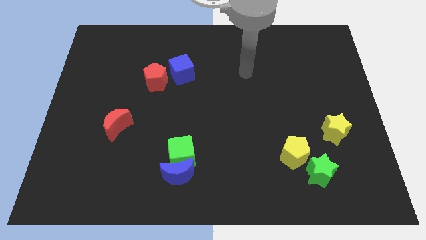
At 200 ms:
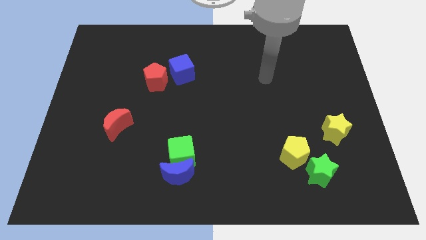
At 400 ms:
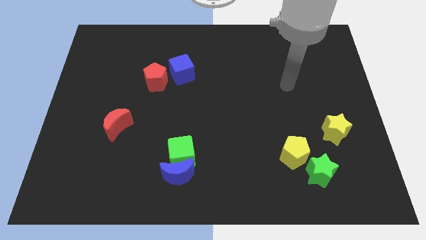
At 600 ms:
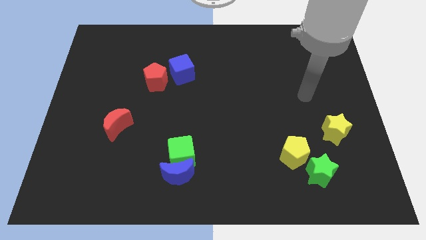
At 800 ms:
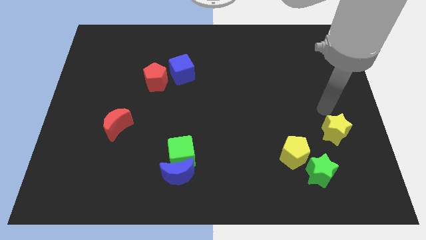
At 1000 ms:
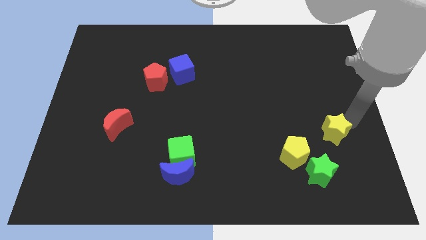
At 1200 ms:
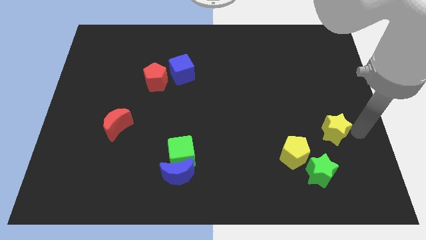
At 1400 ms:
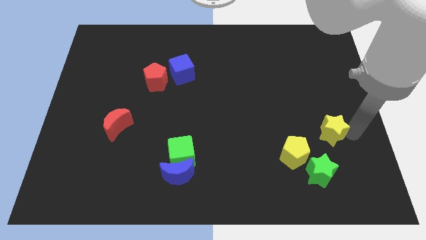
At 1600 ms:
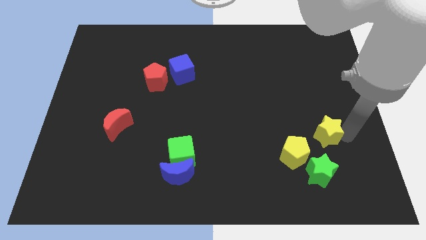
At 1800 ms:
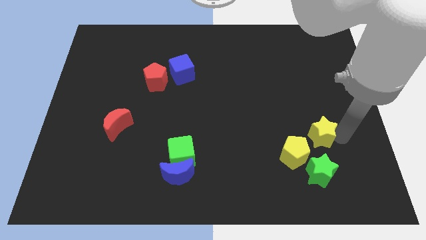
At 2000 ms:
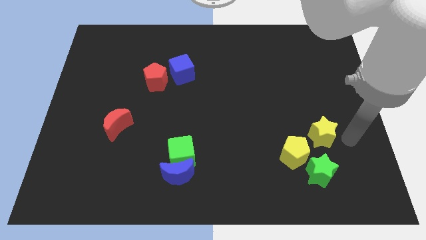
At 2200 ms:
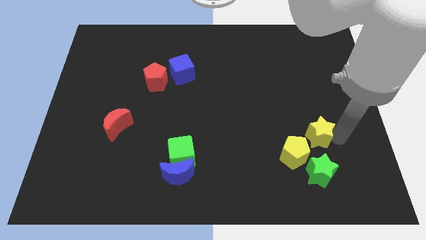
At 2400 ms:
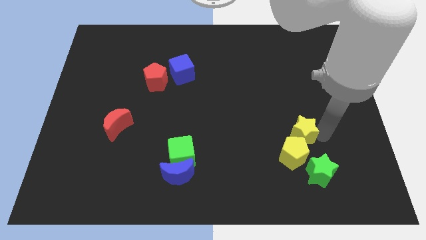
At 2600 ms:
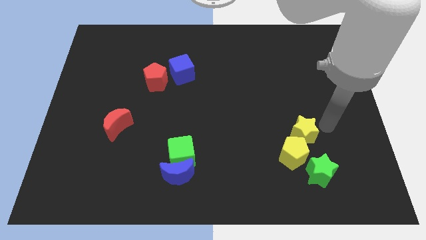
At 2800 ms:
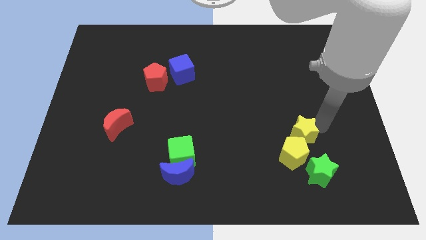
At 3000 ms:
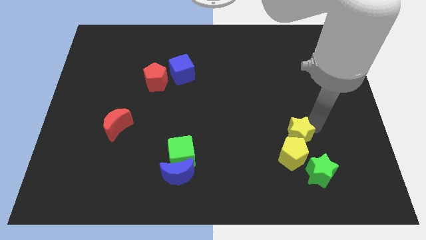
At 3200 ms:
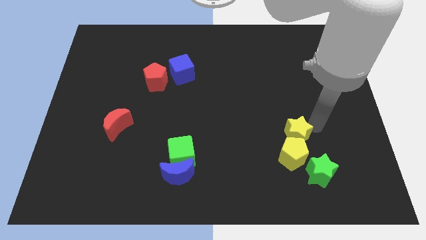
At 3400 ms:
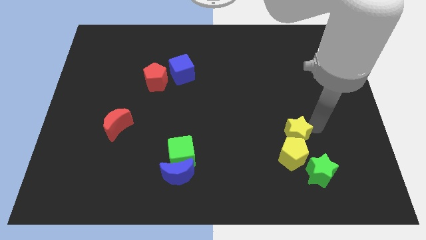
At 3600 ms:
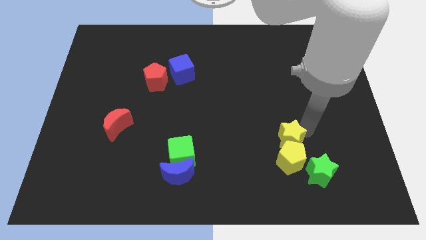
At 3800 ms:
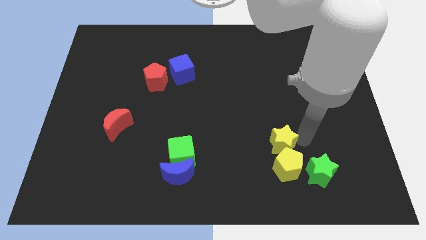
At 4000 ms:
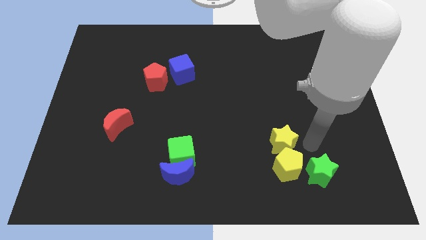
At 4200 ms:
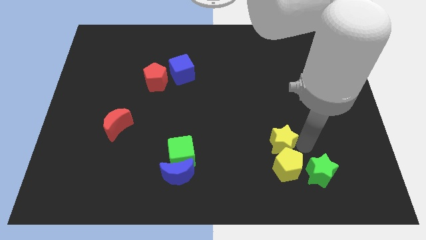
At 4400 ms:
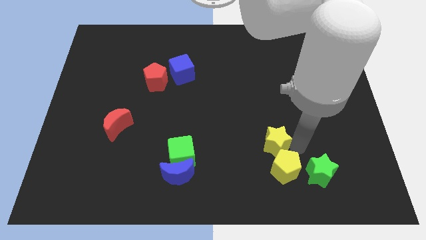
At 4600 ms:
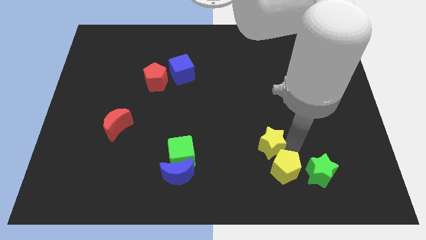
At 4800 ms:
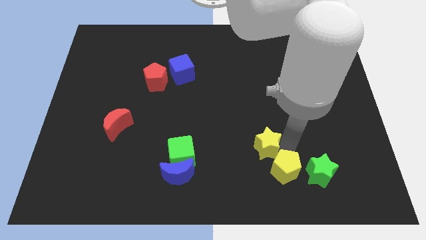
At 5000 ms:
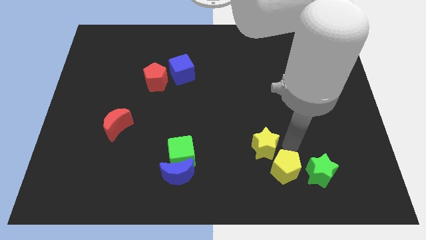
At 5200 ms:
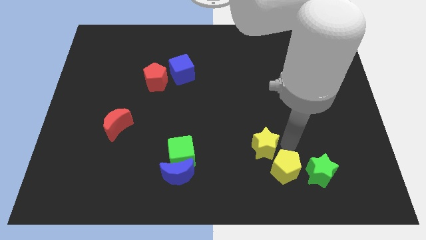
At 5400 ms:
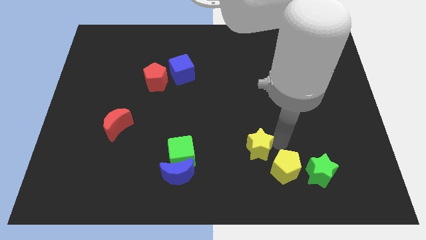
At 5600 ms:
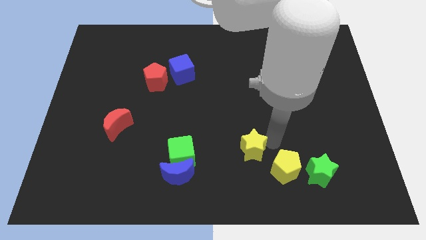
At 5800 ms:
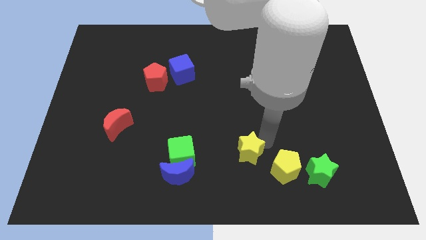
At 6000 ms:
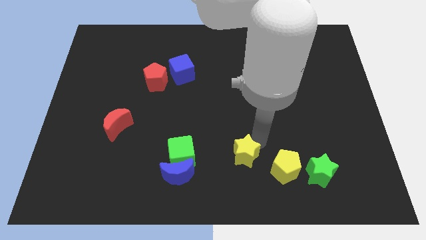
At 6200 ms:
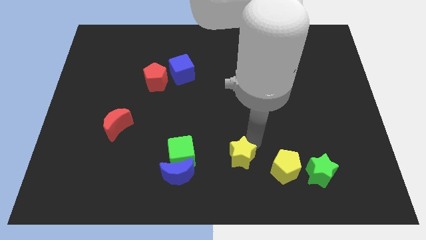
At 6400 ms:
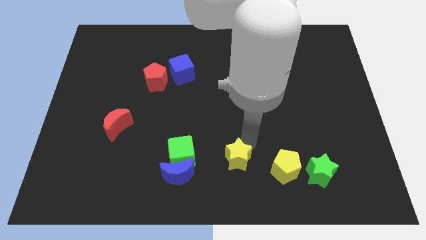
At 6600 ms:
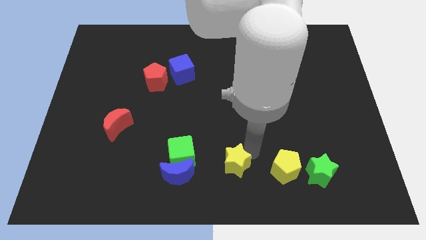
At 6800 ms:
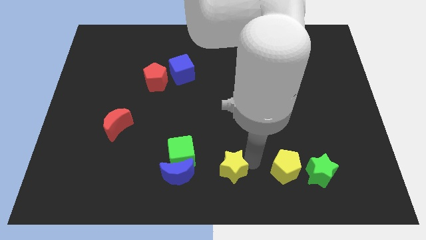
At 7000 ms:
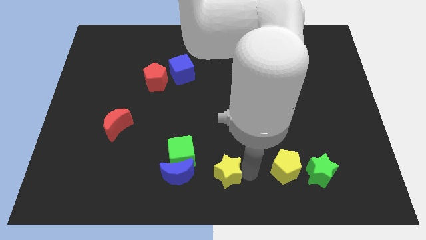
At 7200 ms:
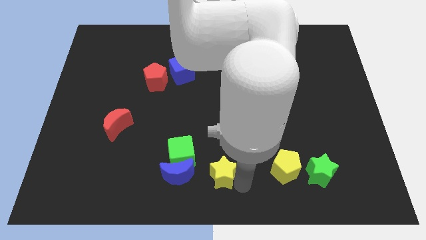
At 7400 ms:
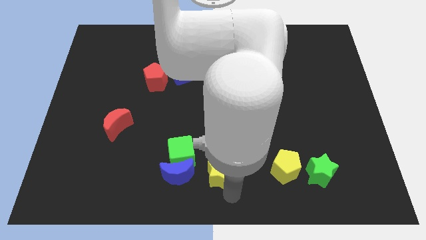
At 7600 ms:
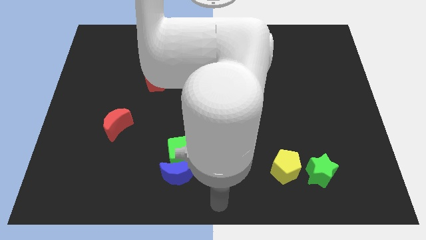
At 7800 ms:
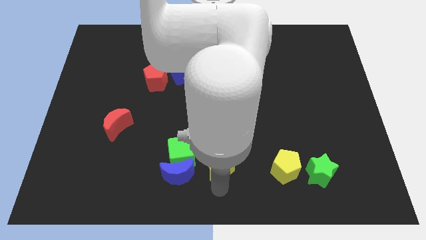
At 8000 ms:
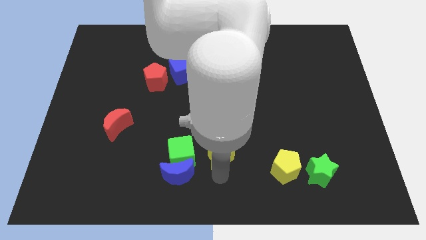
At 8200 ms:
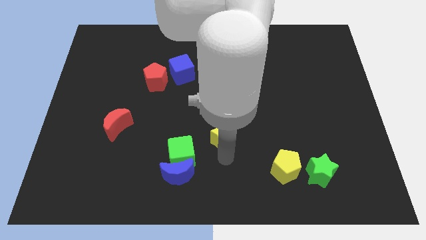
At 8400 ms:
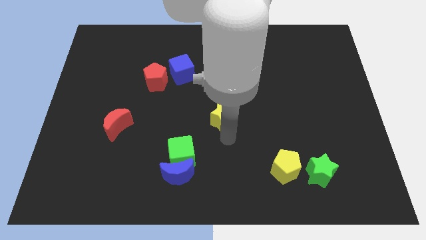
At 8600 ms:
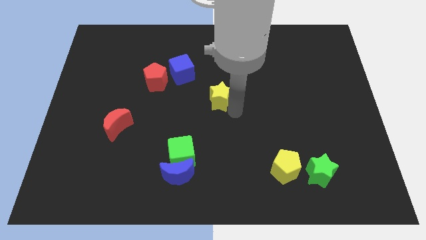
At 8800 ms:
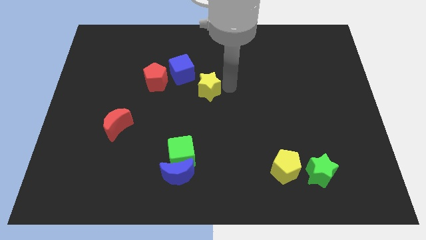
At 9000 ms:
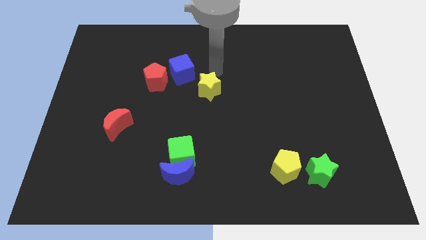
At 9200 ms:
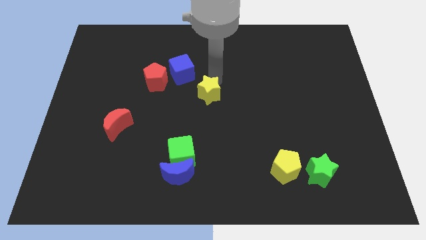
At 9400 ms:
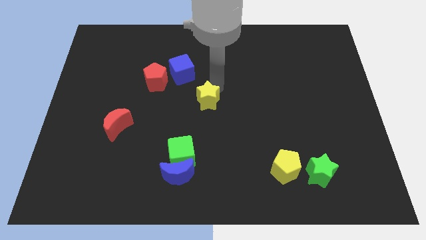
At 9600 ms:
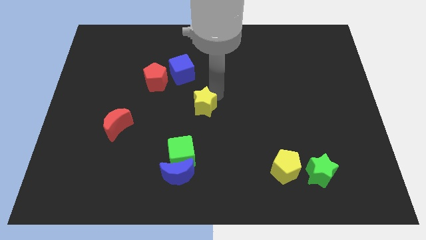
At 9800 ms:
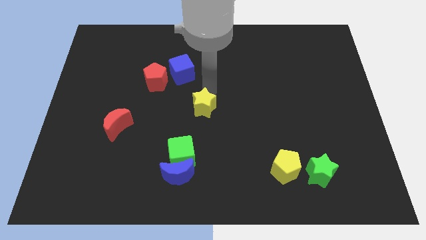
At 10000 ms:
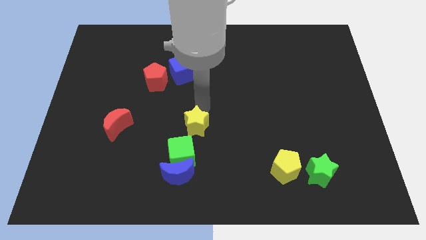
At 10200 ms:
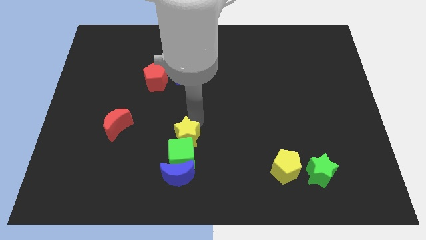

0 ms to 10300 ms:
put the yellow star close to the green cube

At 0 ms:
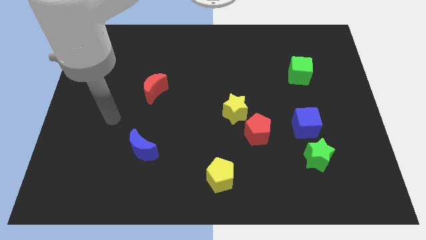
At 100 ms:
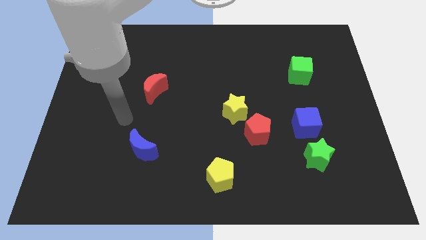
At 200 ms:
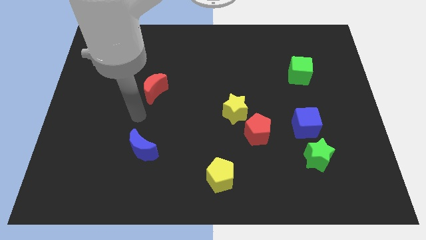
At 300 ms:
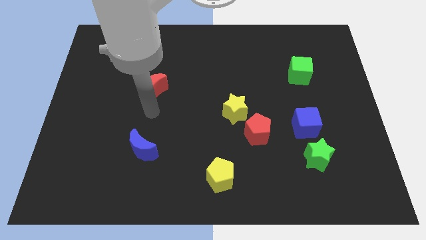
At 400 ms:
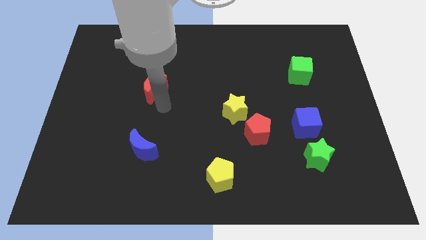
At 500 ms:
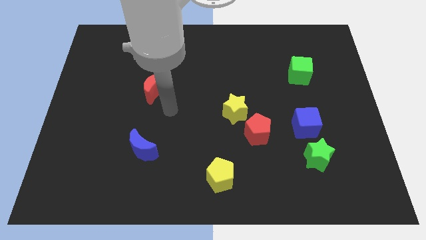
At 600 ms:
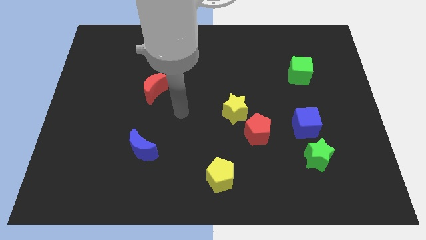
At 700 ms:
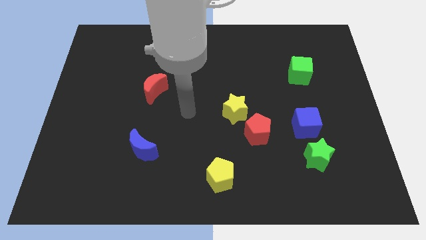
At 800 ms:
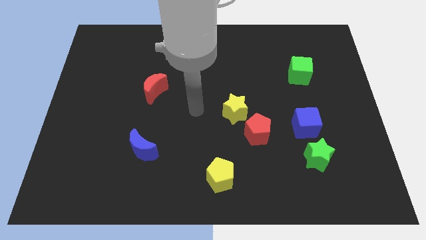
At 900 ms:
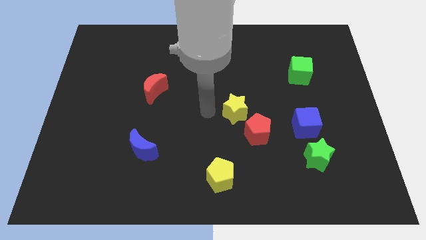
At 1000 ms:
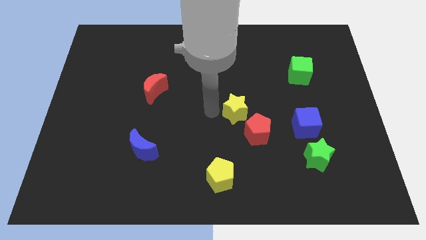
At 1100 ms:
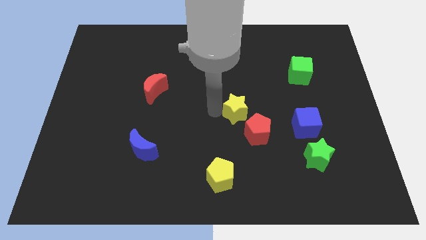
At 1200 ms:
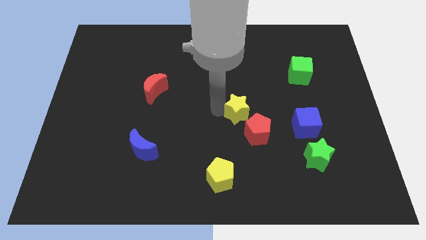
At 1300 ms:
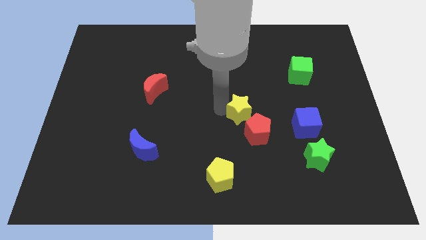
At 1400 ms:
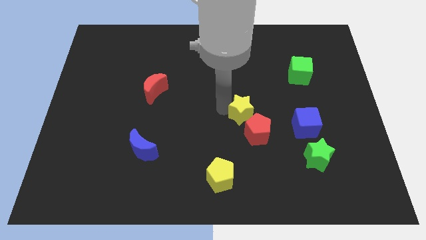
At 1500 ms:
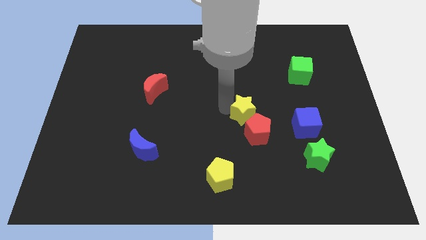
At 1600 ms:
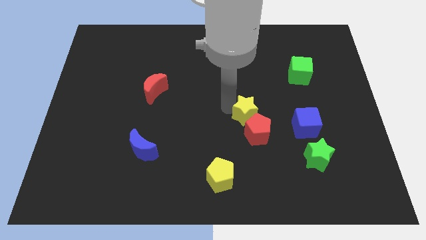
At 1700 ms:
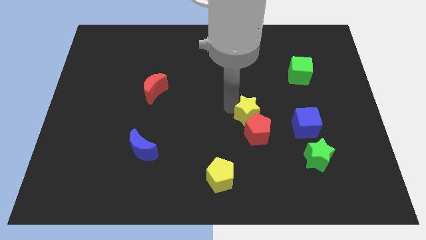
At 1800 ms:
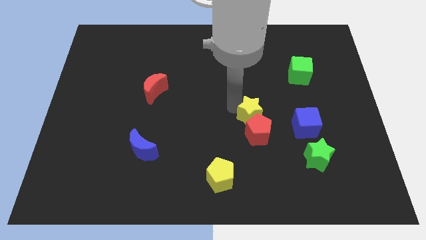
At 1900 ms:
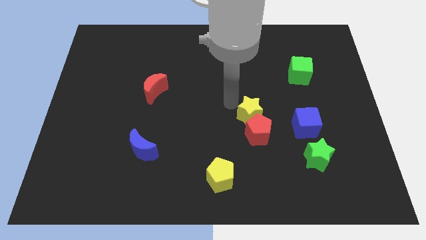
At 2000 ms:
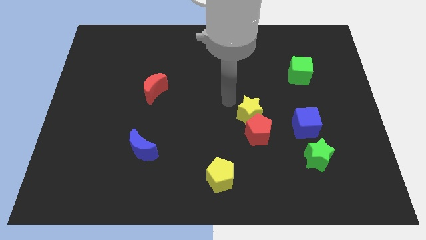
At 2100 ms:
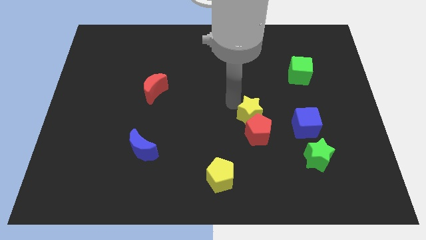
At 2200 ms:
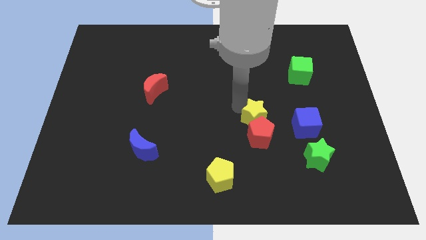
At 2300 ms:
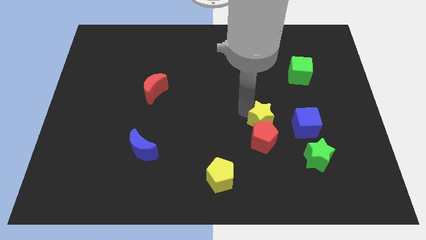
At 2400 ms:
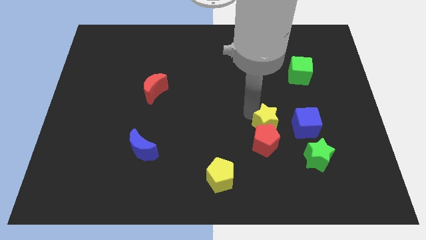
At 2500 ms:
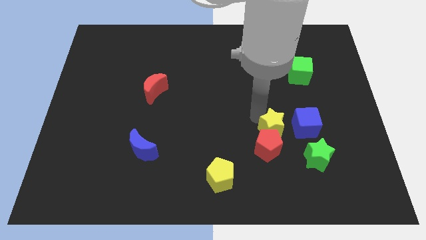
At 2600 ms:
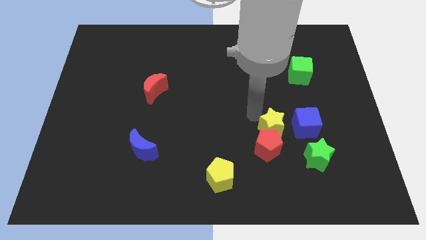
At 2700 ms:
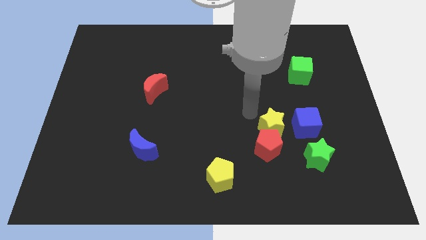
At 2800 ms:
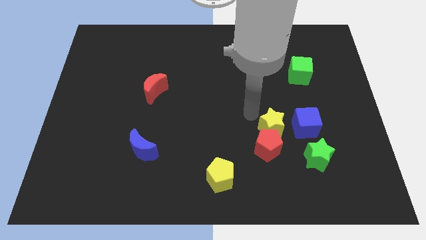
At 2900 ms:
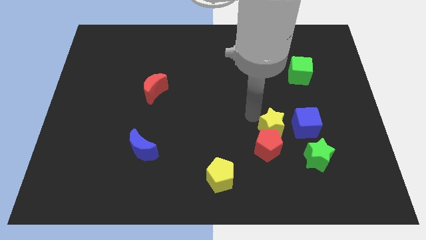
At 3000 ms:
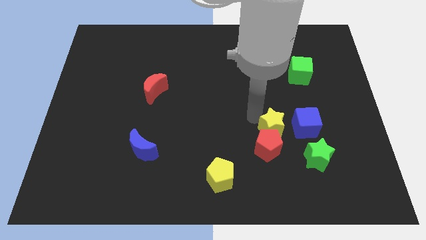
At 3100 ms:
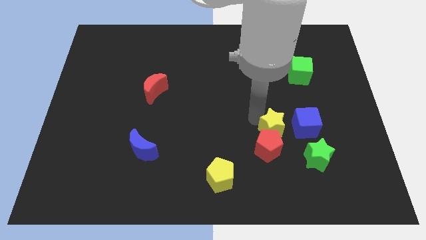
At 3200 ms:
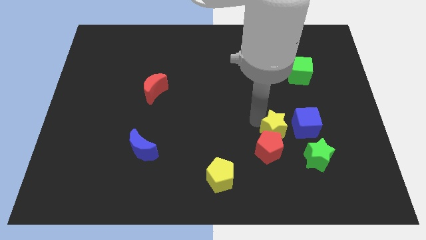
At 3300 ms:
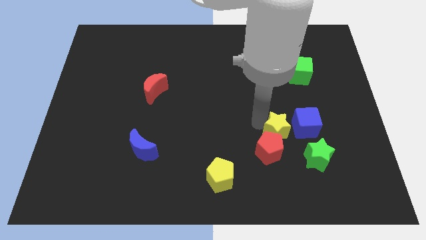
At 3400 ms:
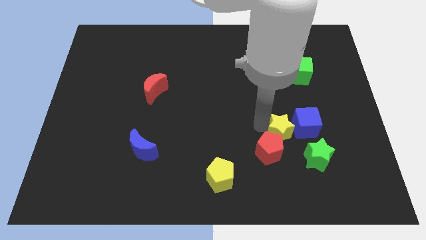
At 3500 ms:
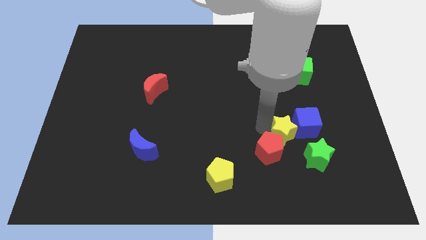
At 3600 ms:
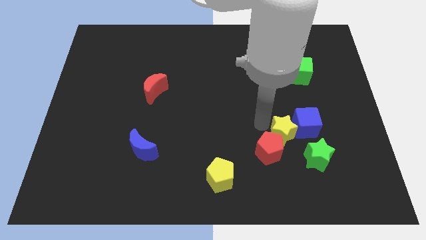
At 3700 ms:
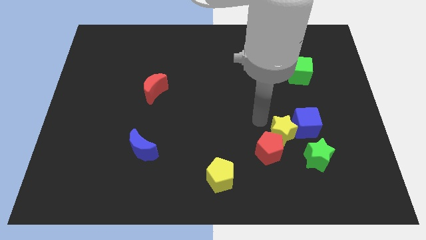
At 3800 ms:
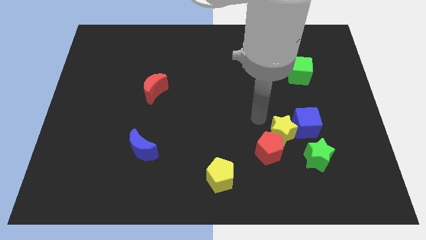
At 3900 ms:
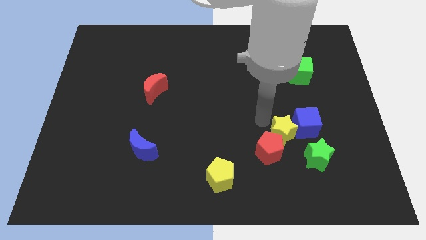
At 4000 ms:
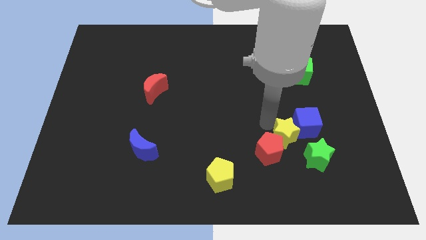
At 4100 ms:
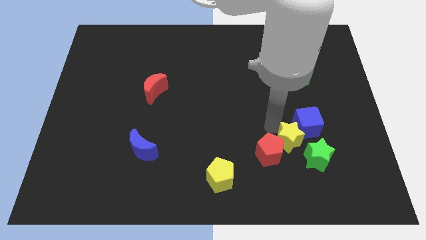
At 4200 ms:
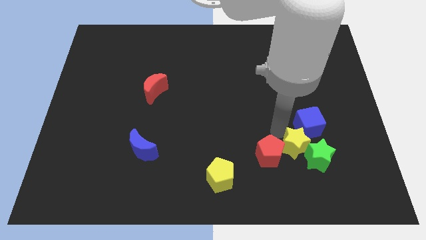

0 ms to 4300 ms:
put the yellow star next to the green star
